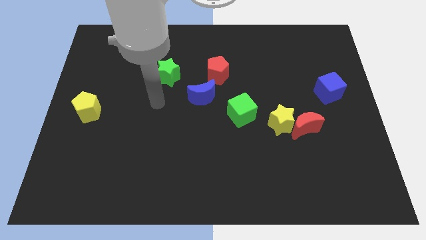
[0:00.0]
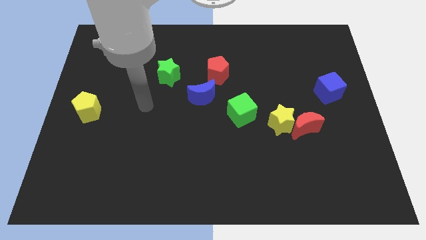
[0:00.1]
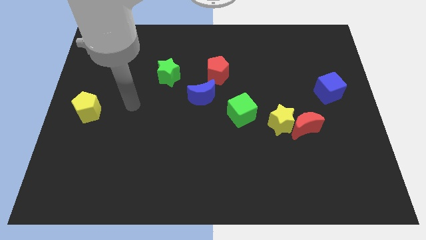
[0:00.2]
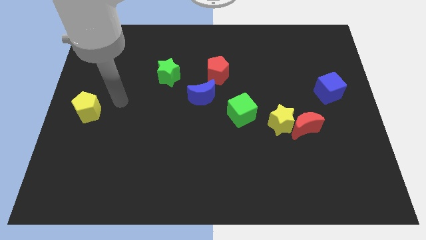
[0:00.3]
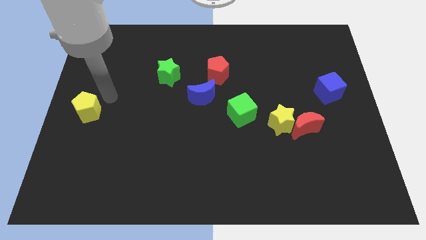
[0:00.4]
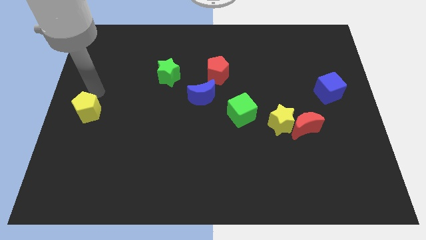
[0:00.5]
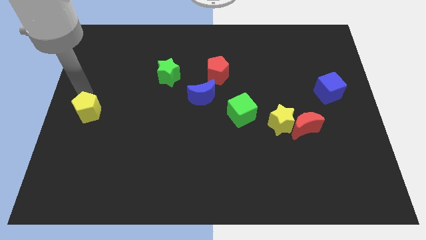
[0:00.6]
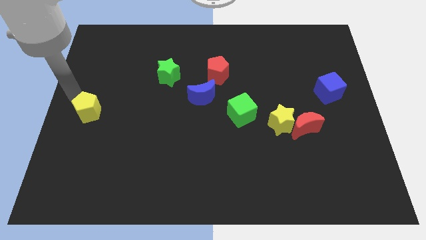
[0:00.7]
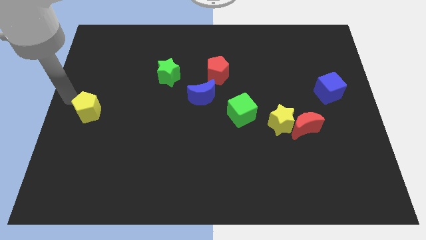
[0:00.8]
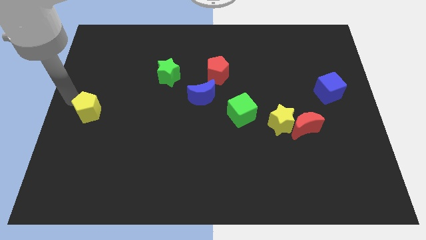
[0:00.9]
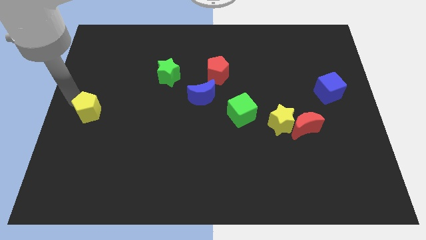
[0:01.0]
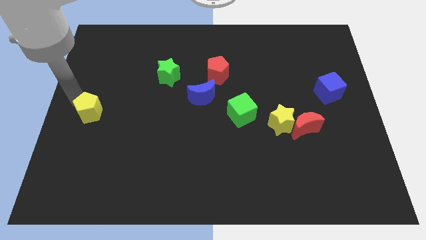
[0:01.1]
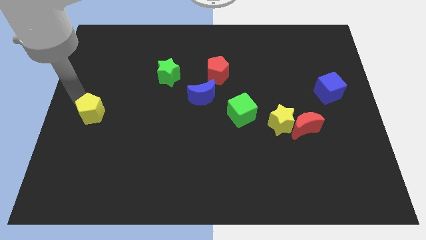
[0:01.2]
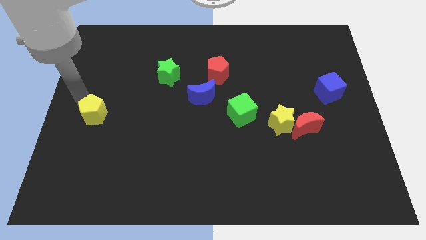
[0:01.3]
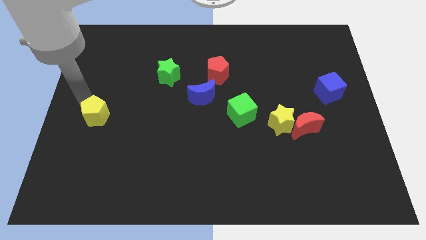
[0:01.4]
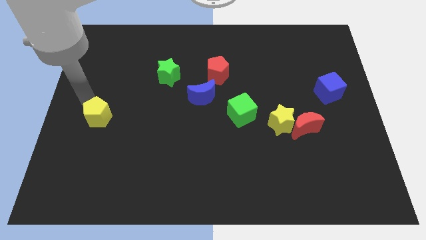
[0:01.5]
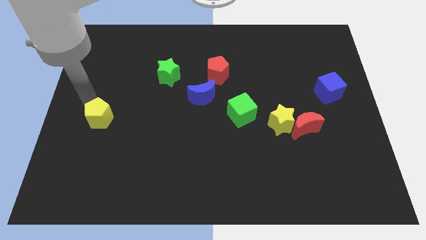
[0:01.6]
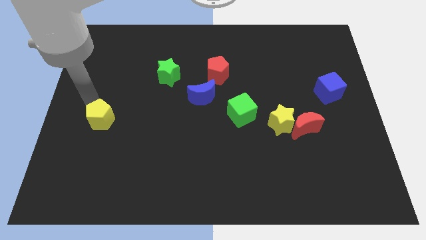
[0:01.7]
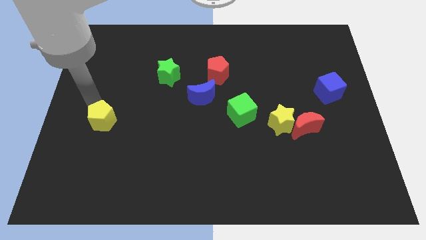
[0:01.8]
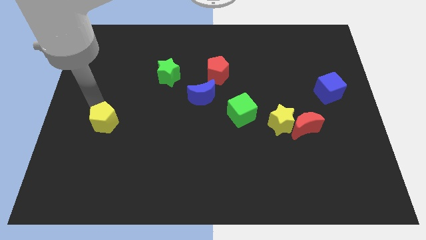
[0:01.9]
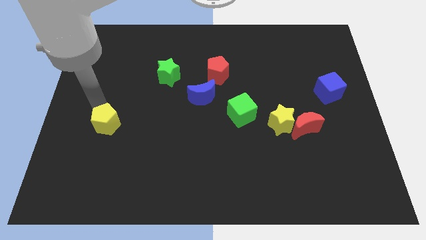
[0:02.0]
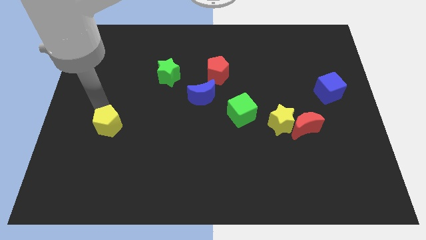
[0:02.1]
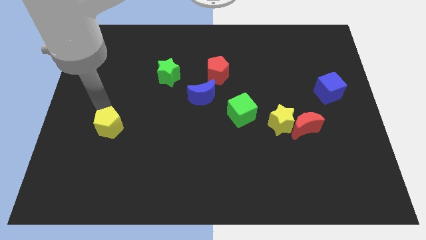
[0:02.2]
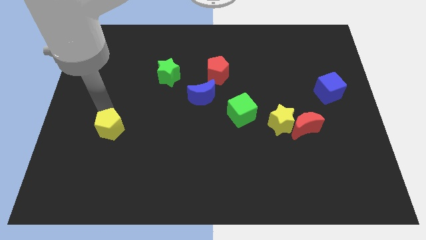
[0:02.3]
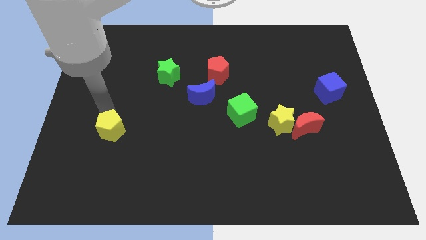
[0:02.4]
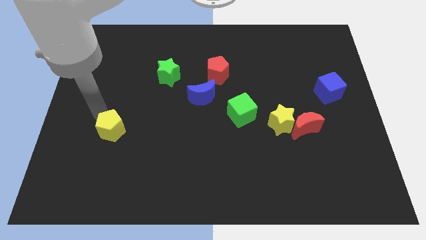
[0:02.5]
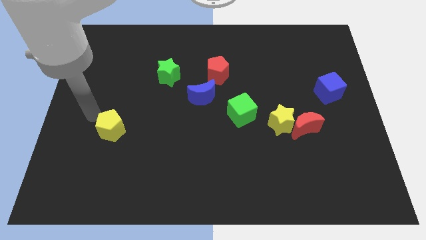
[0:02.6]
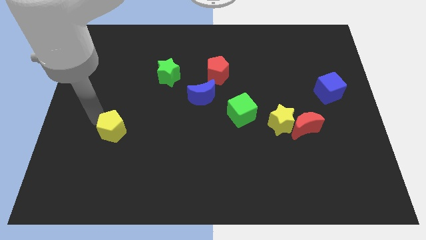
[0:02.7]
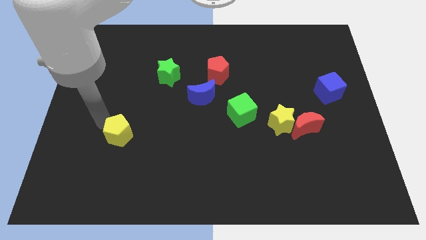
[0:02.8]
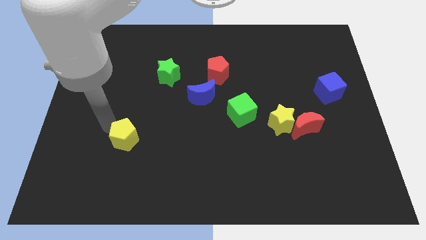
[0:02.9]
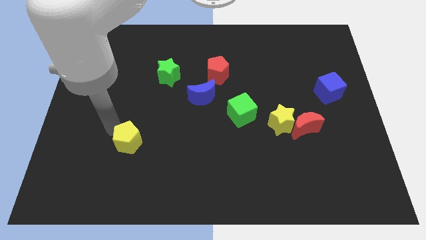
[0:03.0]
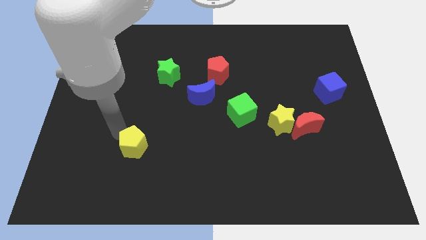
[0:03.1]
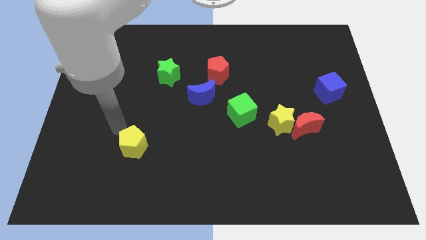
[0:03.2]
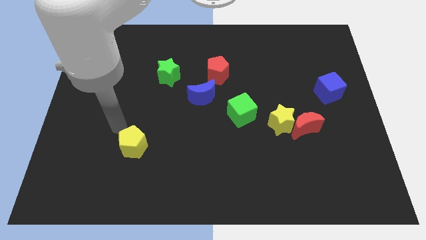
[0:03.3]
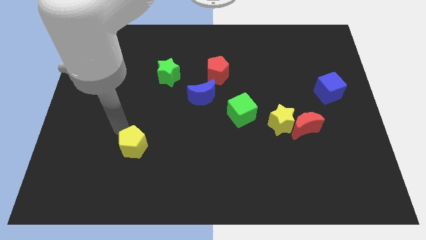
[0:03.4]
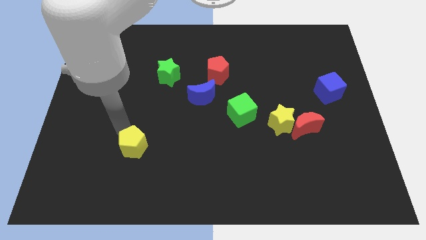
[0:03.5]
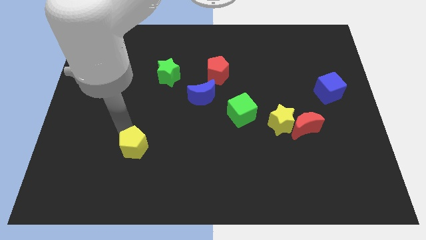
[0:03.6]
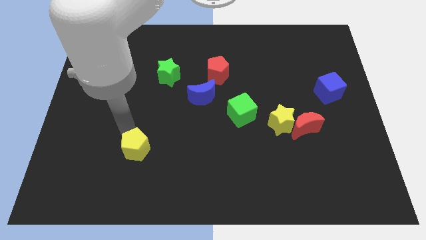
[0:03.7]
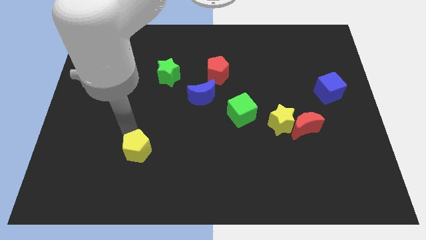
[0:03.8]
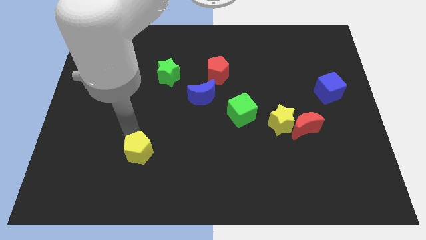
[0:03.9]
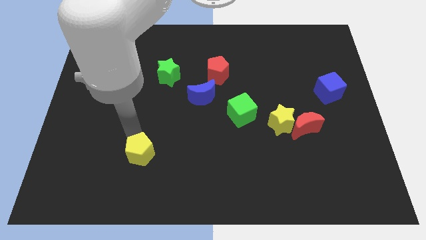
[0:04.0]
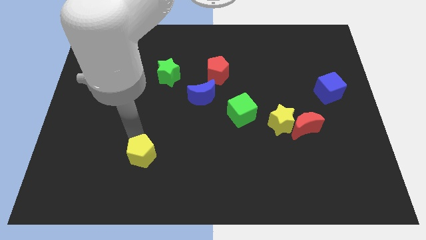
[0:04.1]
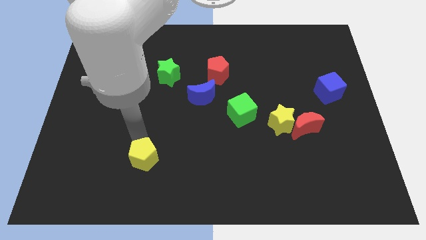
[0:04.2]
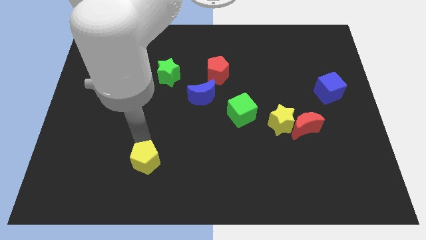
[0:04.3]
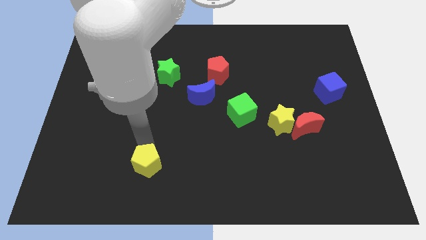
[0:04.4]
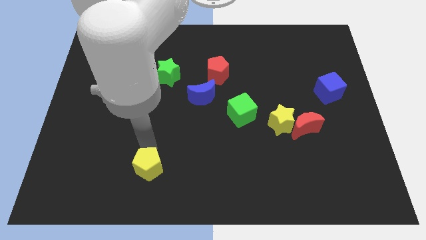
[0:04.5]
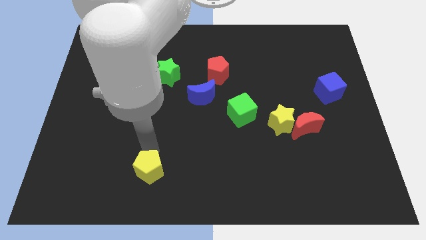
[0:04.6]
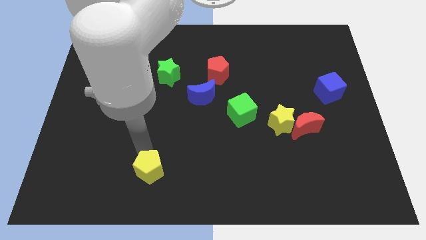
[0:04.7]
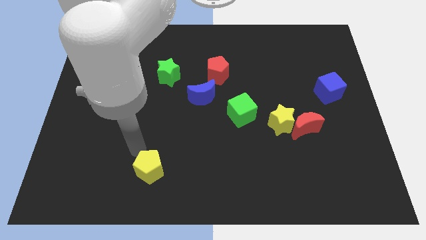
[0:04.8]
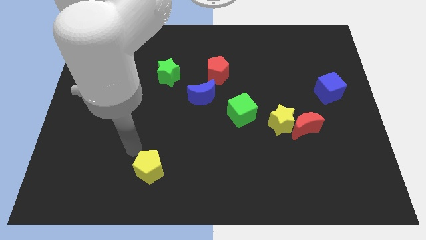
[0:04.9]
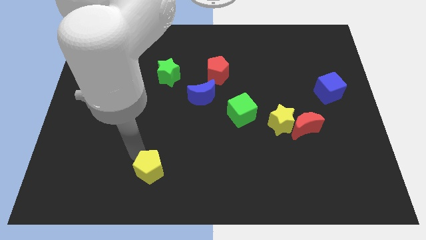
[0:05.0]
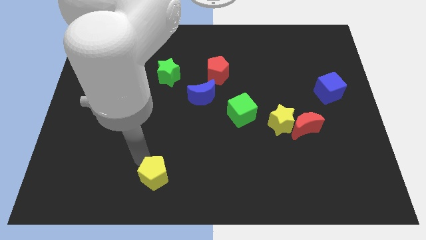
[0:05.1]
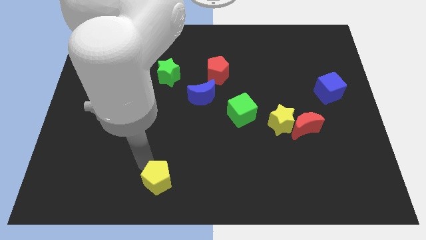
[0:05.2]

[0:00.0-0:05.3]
put the yellow pentagon to the bottom

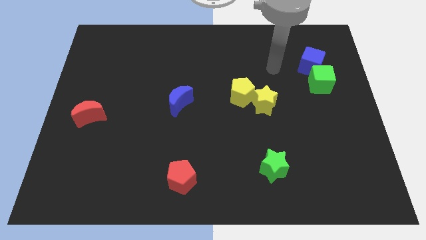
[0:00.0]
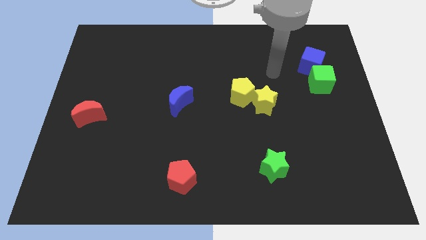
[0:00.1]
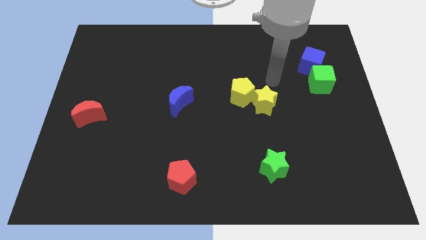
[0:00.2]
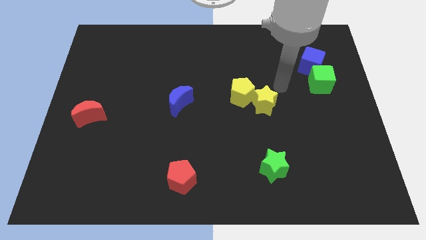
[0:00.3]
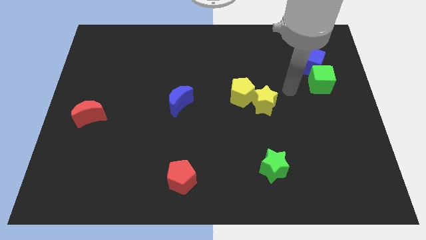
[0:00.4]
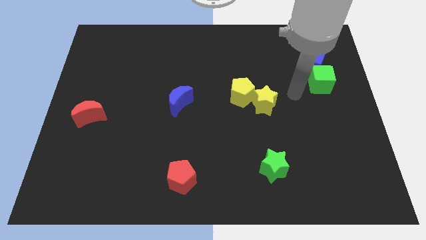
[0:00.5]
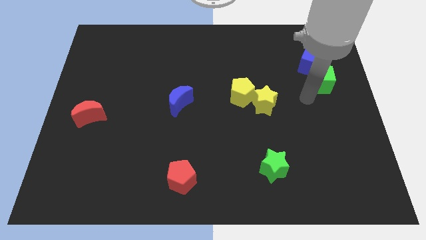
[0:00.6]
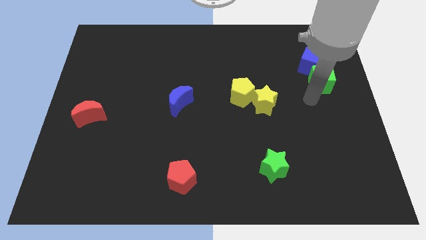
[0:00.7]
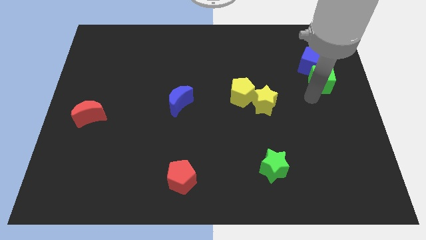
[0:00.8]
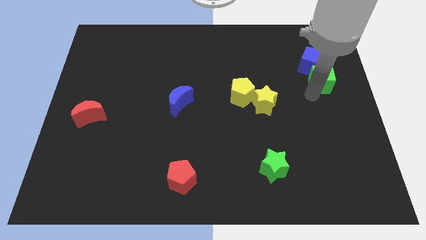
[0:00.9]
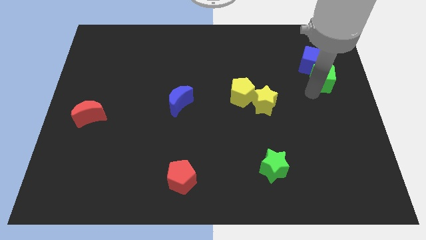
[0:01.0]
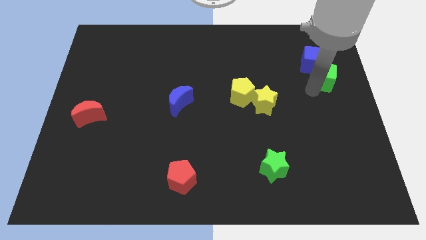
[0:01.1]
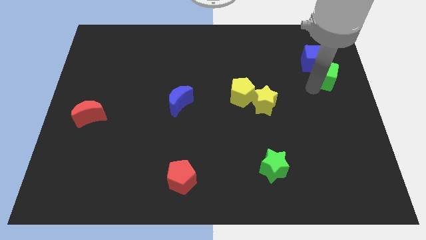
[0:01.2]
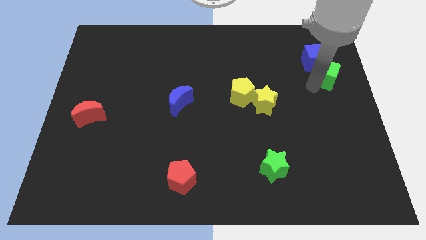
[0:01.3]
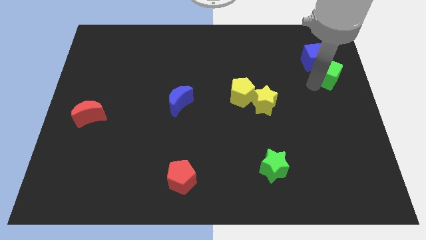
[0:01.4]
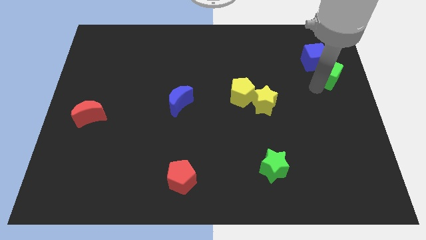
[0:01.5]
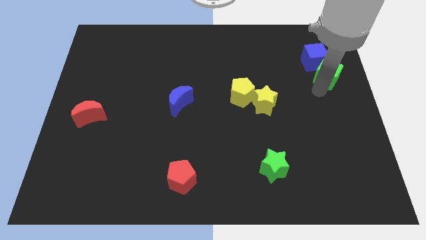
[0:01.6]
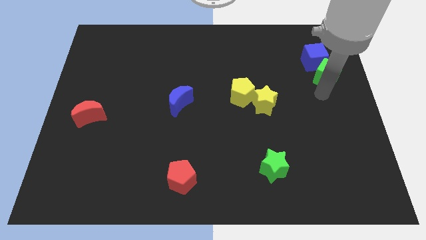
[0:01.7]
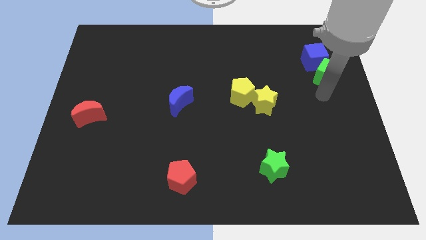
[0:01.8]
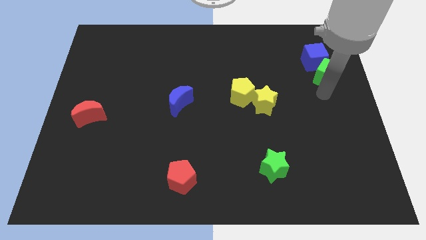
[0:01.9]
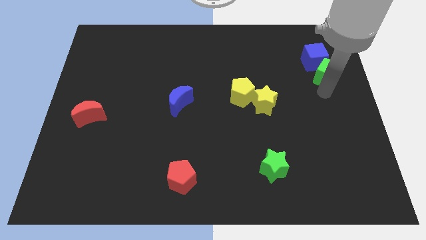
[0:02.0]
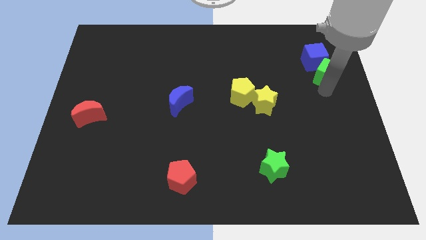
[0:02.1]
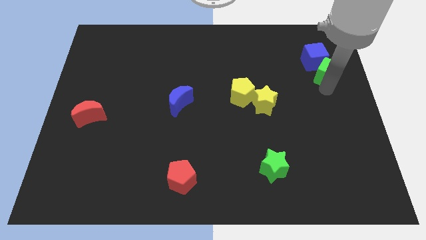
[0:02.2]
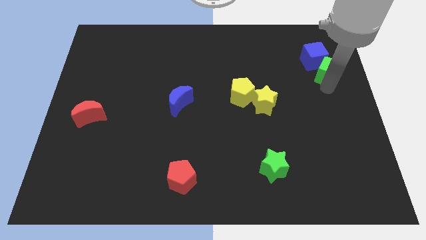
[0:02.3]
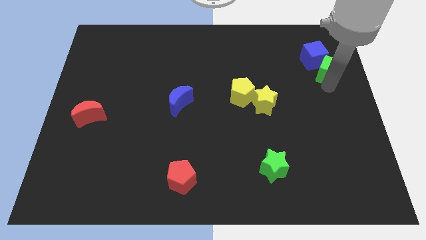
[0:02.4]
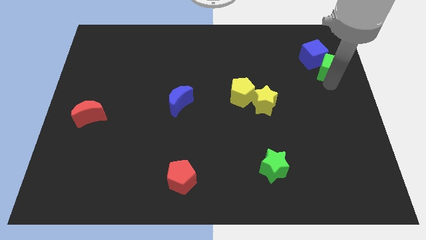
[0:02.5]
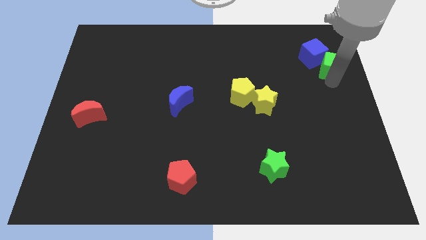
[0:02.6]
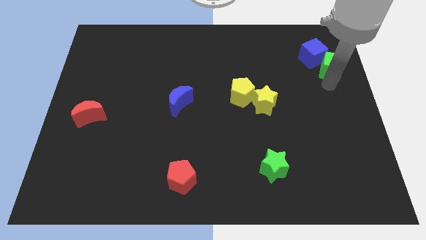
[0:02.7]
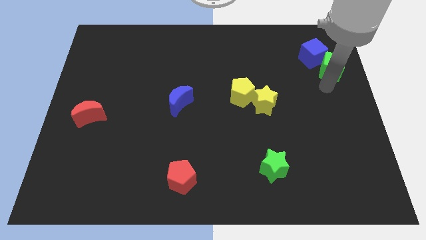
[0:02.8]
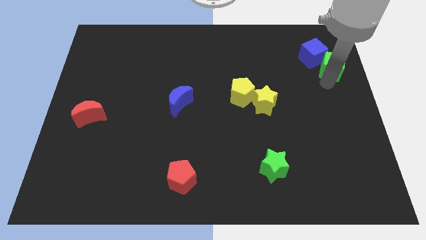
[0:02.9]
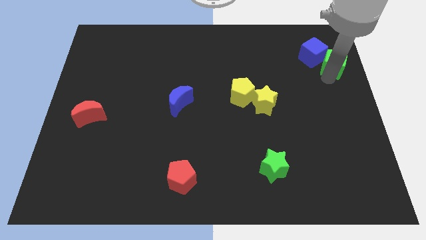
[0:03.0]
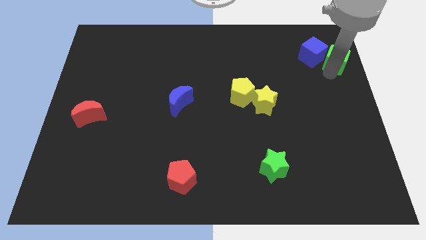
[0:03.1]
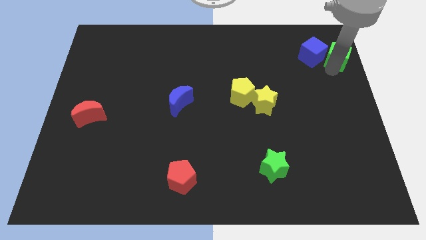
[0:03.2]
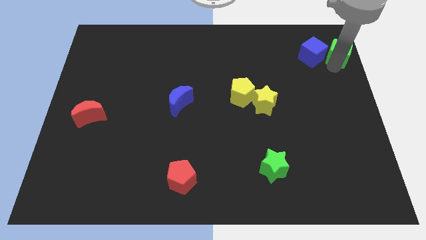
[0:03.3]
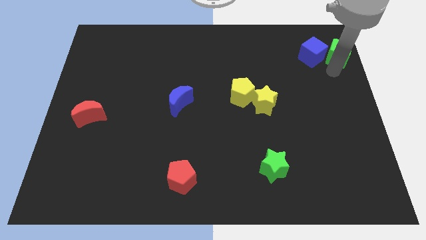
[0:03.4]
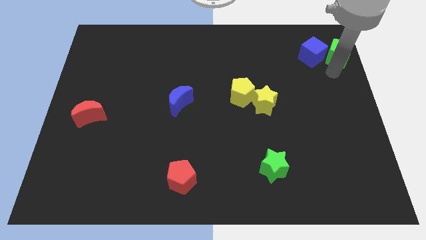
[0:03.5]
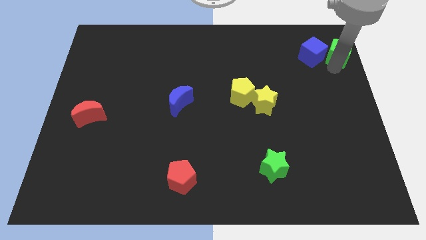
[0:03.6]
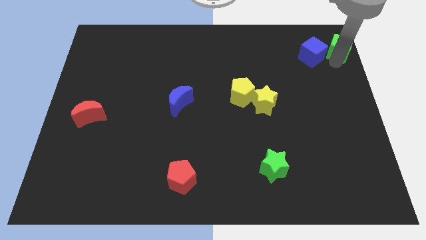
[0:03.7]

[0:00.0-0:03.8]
push the green cube to the top right of the board
